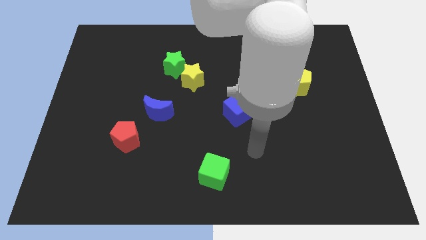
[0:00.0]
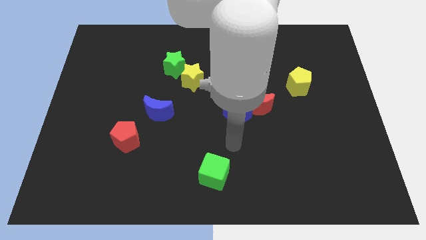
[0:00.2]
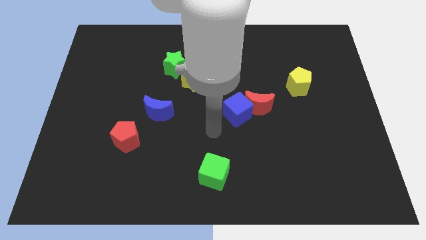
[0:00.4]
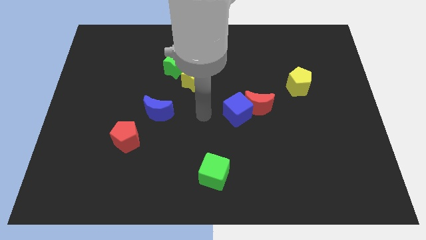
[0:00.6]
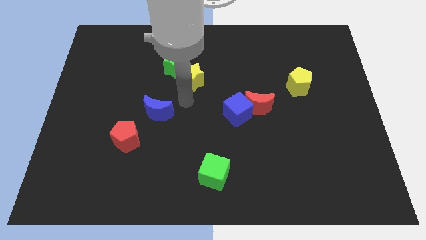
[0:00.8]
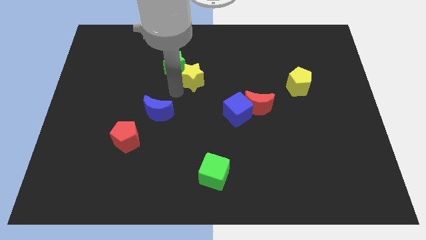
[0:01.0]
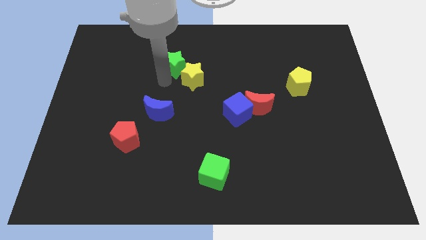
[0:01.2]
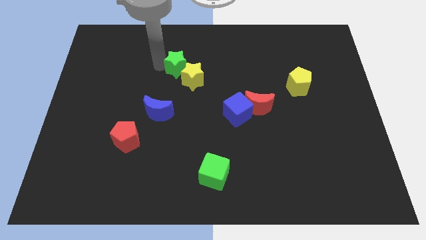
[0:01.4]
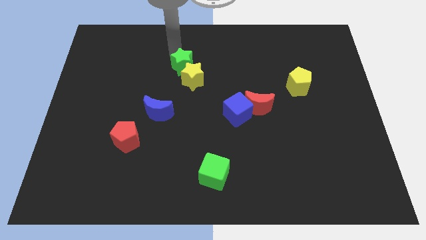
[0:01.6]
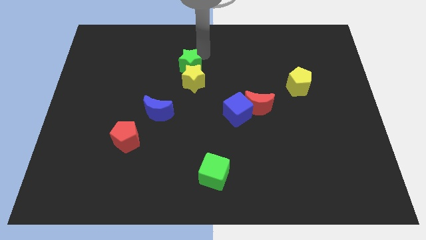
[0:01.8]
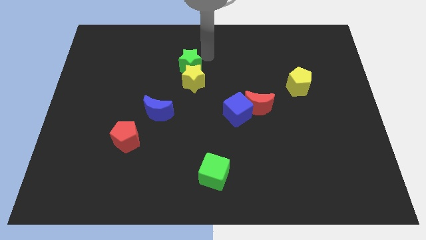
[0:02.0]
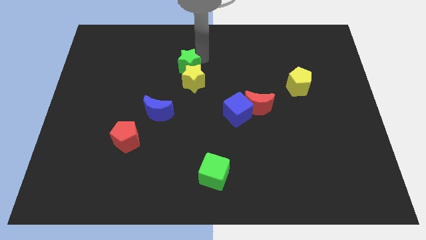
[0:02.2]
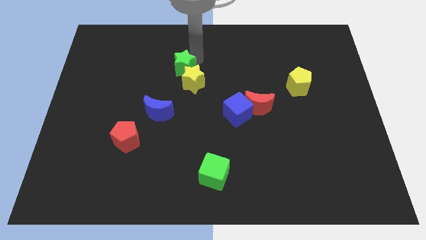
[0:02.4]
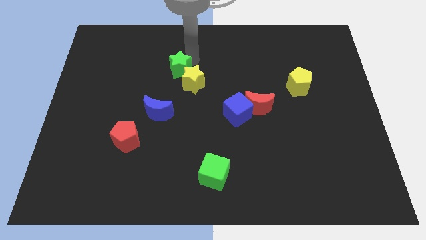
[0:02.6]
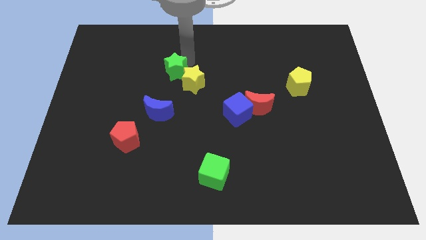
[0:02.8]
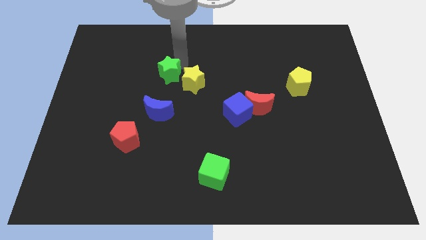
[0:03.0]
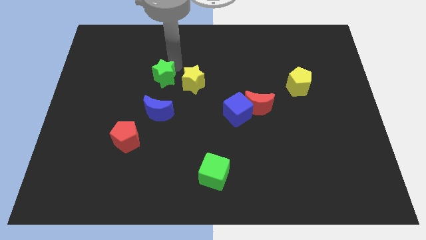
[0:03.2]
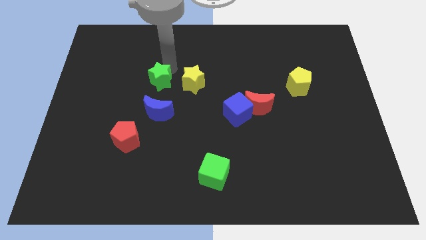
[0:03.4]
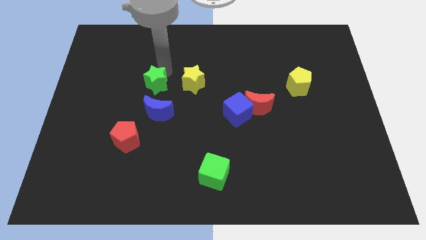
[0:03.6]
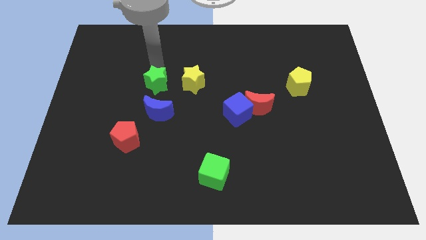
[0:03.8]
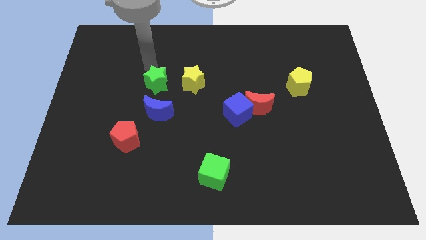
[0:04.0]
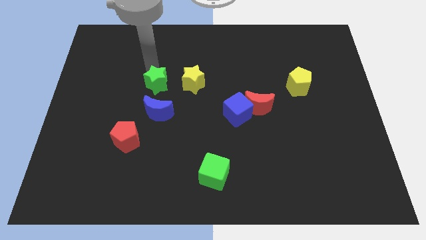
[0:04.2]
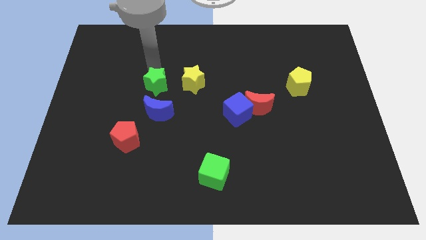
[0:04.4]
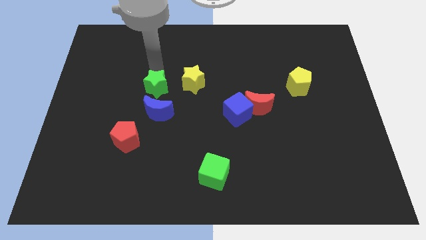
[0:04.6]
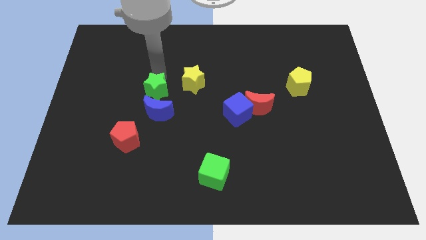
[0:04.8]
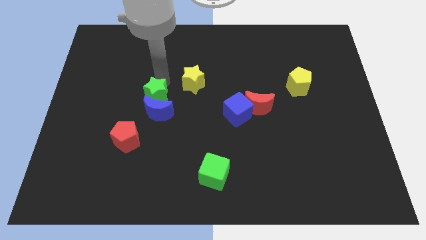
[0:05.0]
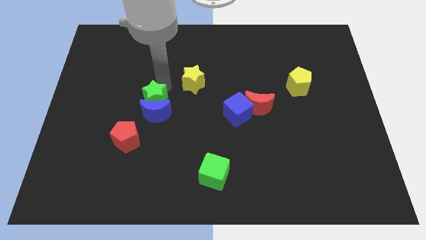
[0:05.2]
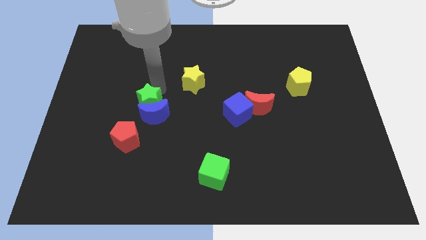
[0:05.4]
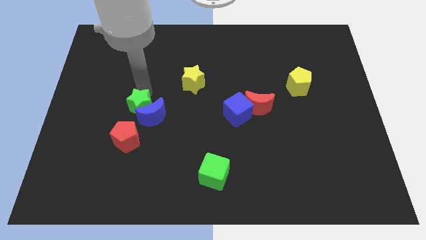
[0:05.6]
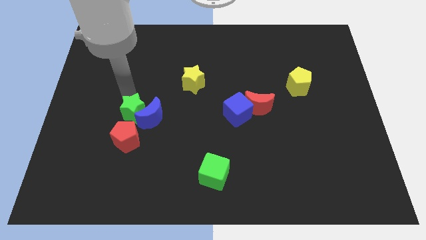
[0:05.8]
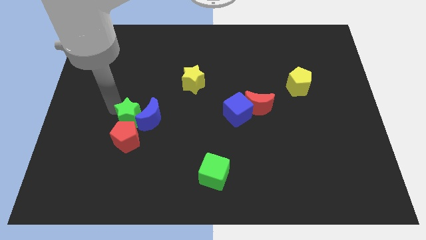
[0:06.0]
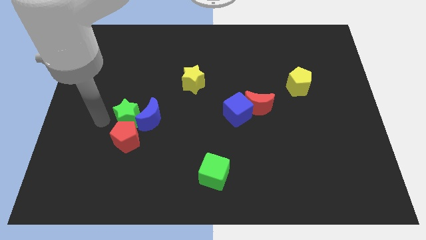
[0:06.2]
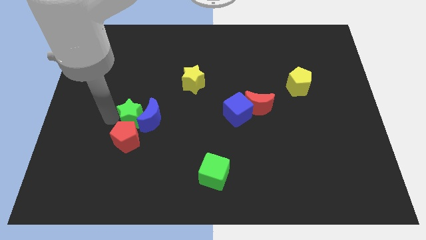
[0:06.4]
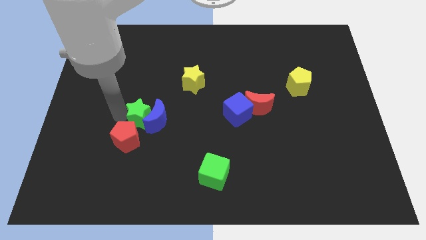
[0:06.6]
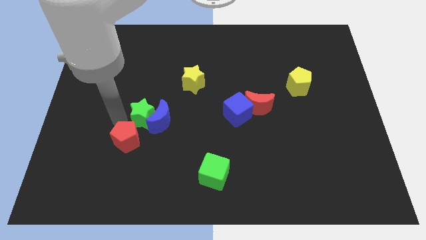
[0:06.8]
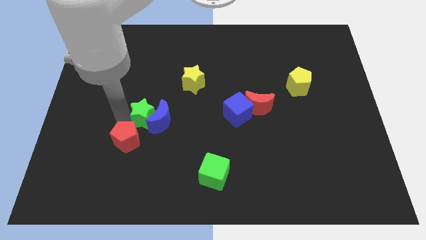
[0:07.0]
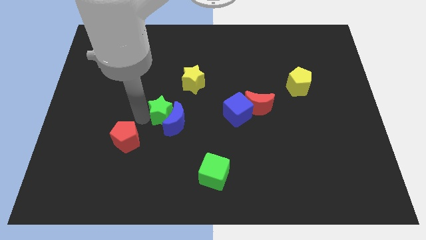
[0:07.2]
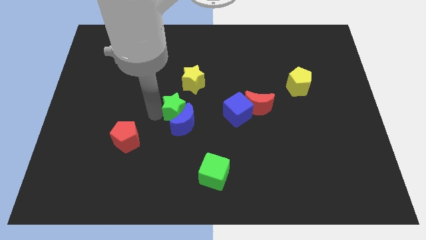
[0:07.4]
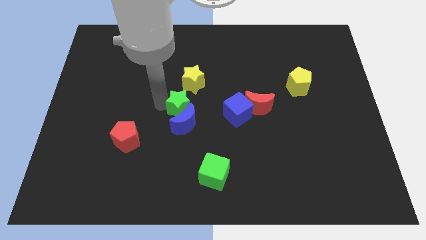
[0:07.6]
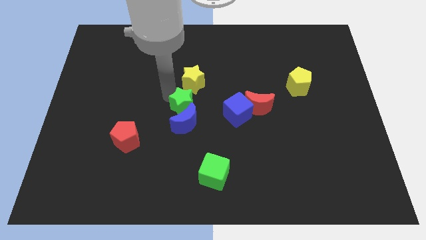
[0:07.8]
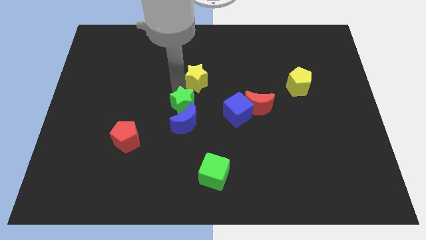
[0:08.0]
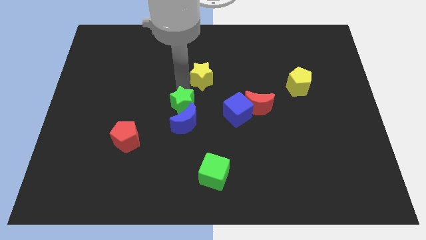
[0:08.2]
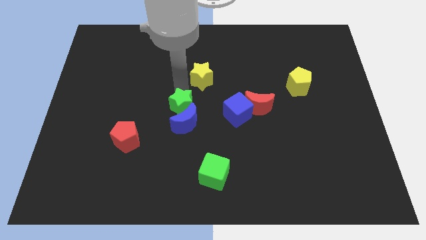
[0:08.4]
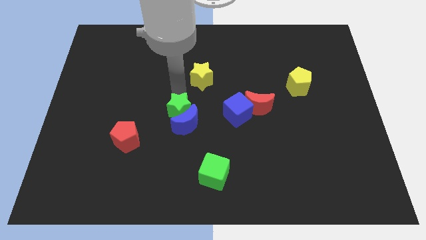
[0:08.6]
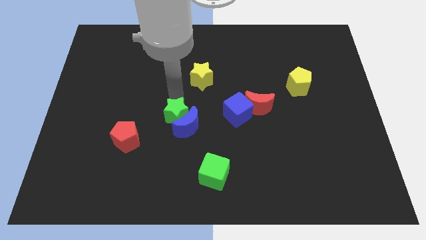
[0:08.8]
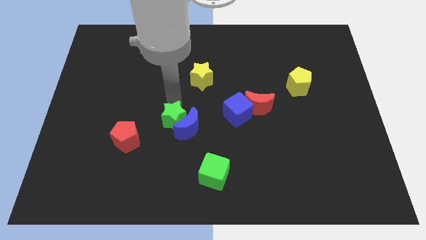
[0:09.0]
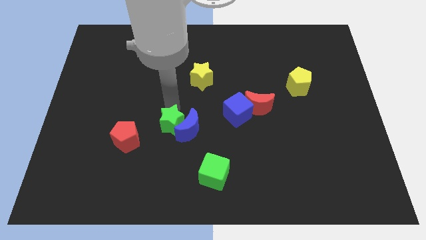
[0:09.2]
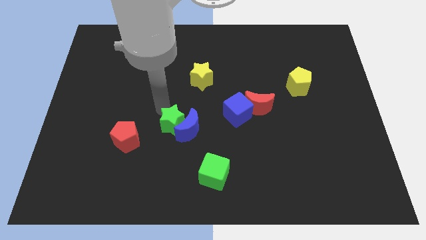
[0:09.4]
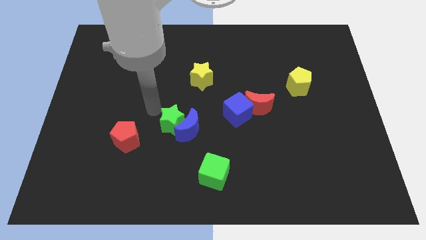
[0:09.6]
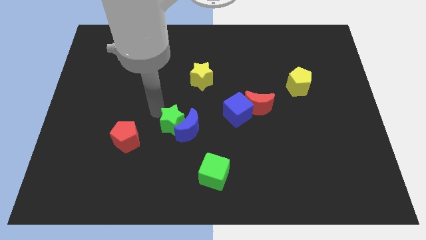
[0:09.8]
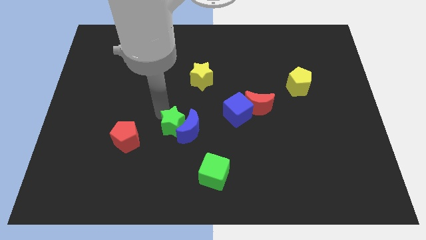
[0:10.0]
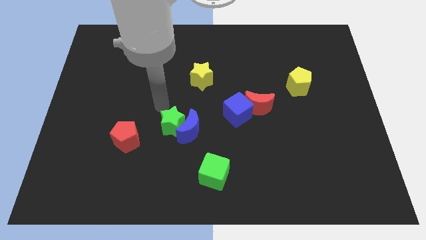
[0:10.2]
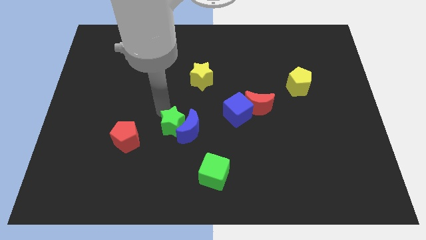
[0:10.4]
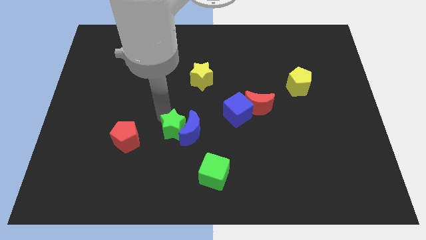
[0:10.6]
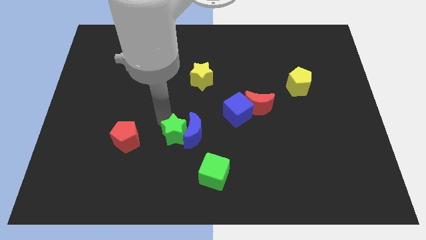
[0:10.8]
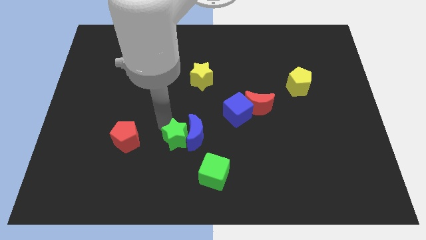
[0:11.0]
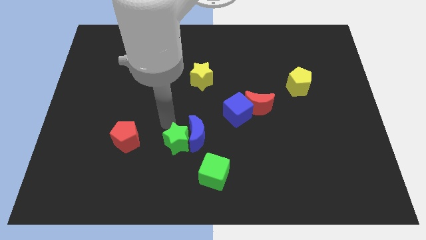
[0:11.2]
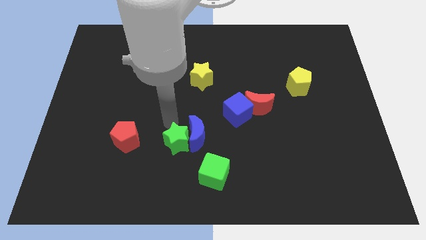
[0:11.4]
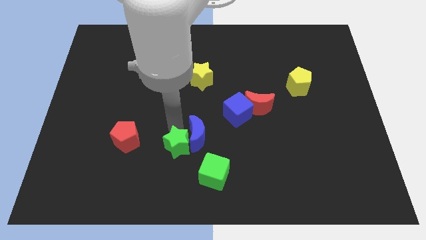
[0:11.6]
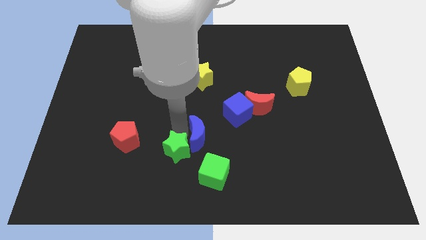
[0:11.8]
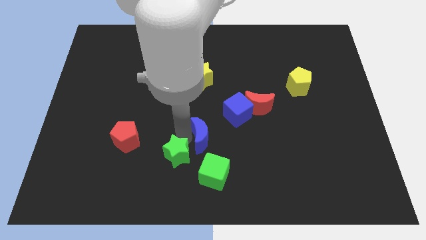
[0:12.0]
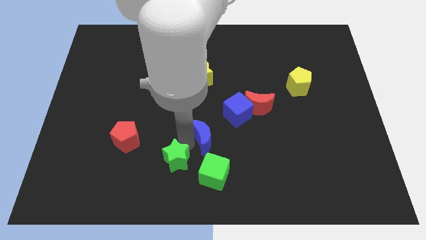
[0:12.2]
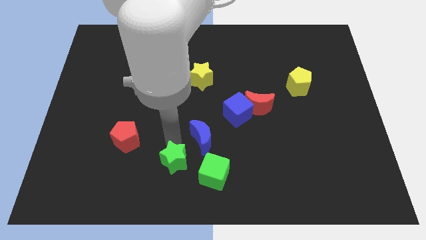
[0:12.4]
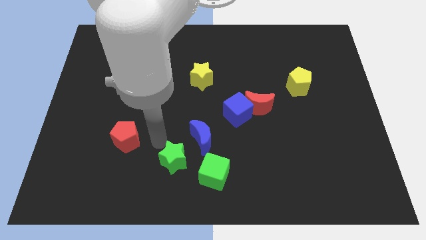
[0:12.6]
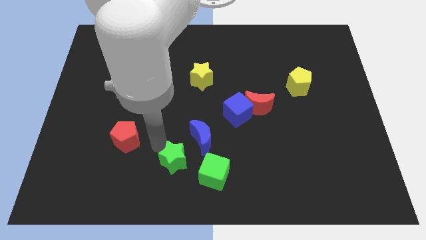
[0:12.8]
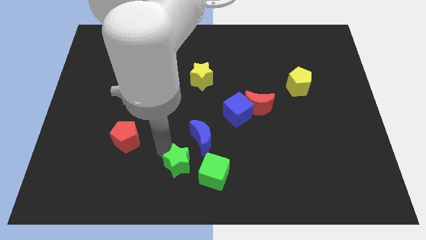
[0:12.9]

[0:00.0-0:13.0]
move the green star to the bottom side
